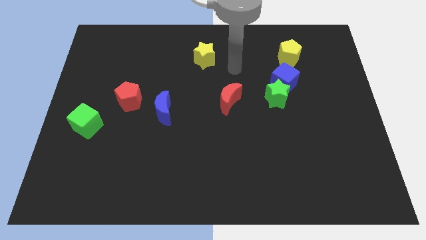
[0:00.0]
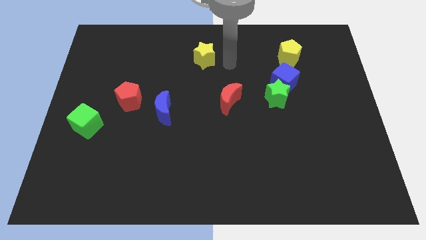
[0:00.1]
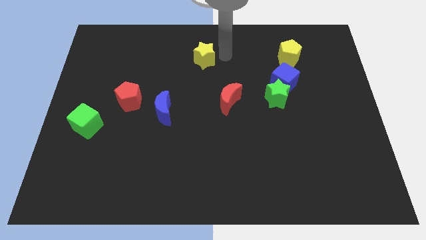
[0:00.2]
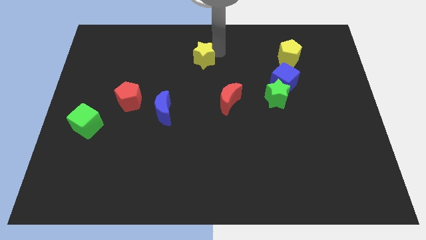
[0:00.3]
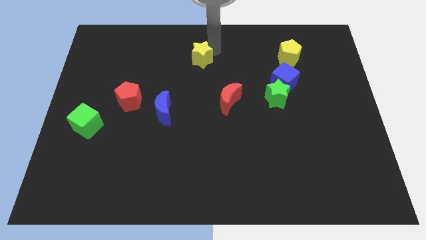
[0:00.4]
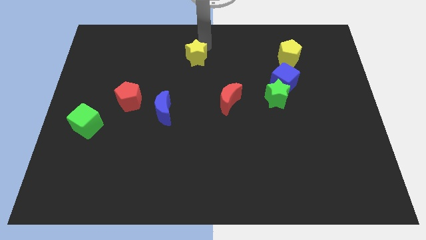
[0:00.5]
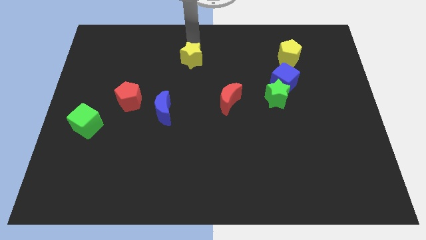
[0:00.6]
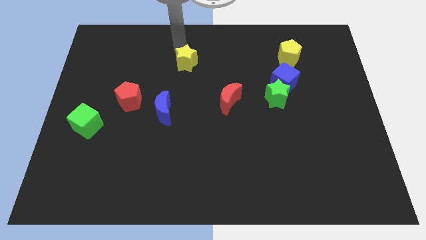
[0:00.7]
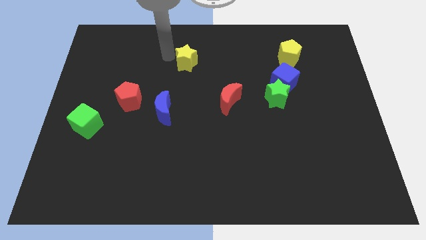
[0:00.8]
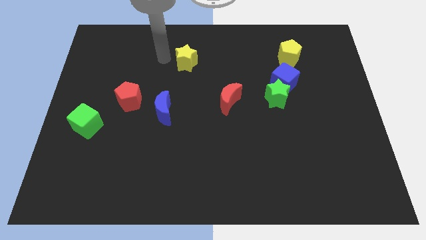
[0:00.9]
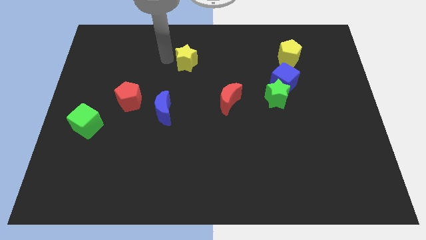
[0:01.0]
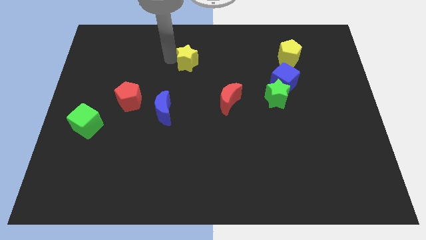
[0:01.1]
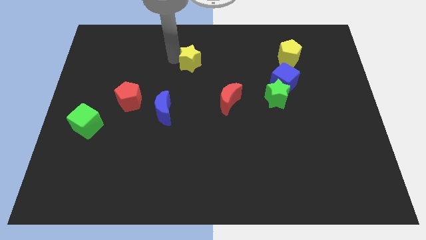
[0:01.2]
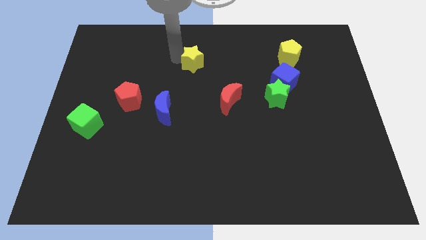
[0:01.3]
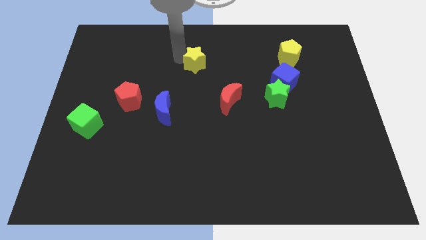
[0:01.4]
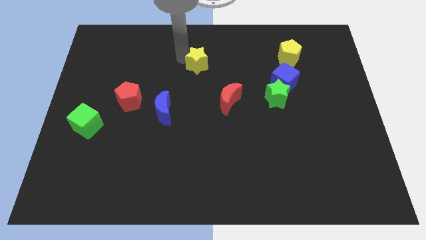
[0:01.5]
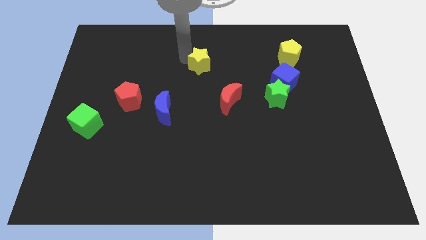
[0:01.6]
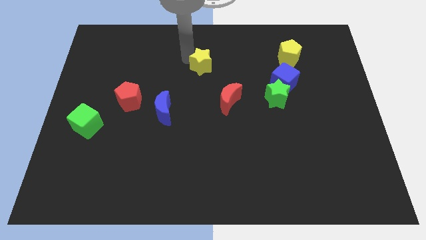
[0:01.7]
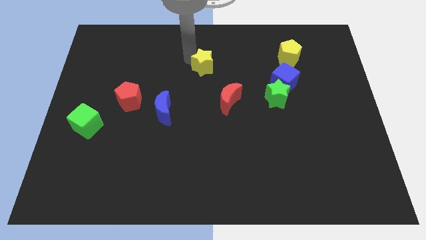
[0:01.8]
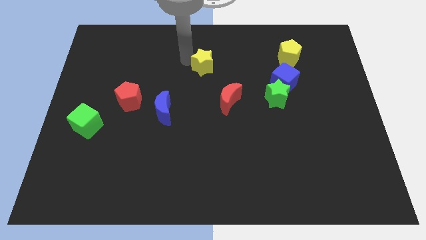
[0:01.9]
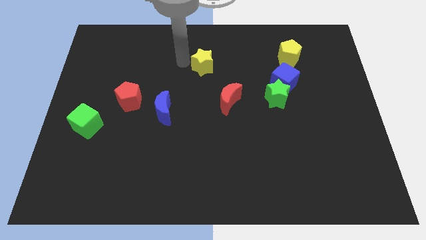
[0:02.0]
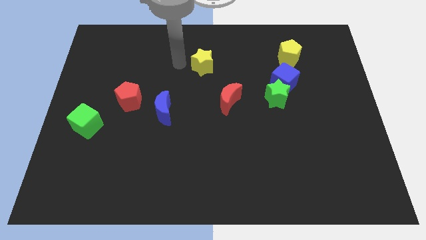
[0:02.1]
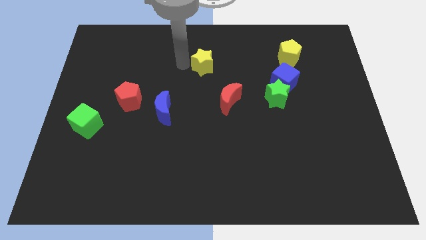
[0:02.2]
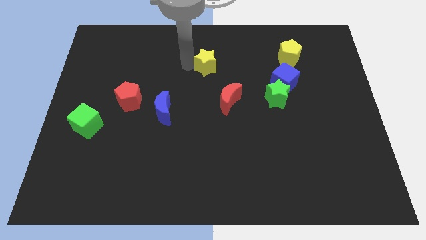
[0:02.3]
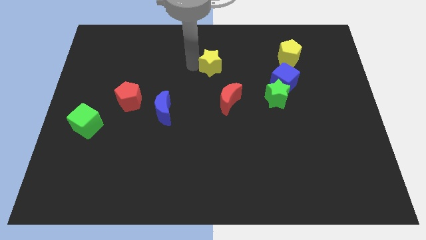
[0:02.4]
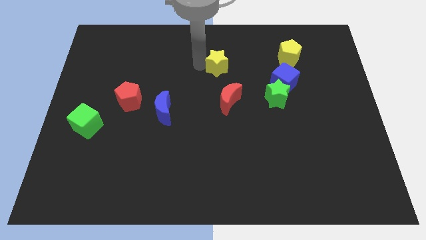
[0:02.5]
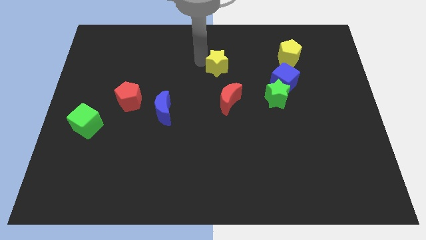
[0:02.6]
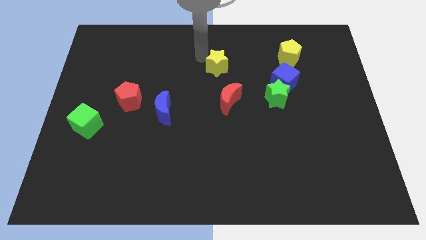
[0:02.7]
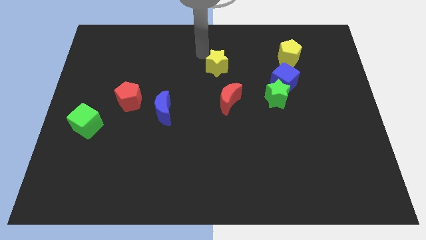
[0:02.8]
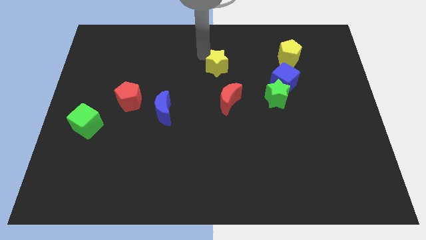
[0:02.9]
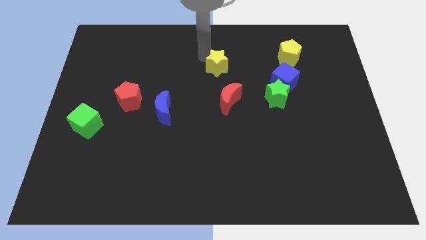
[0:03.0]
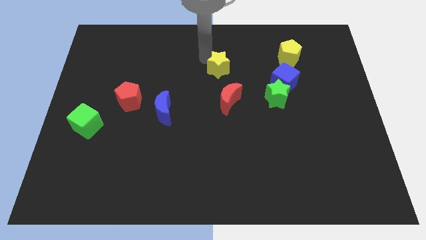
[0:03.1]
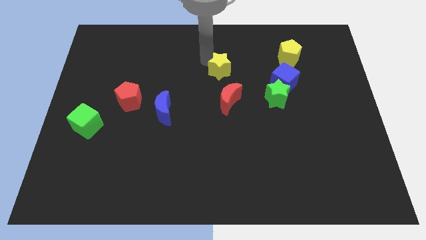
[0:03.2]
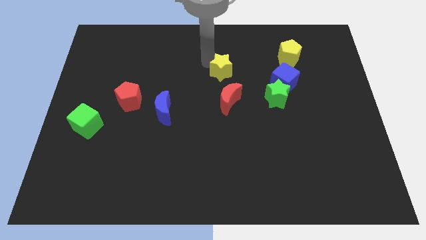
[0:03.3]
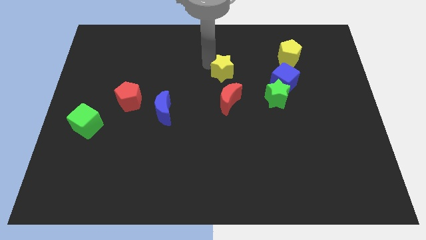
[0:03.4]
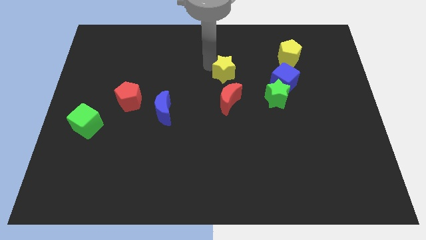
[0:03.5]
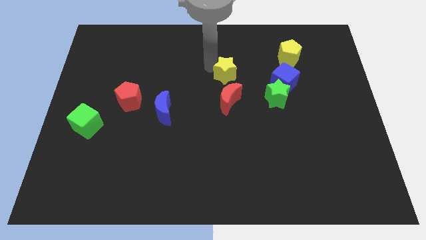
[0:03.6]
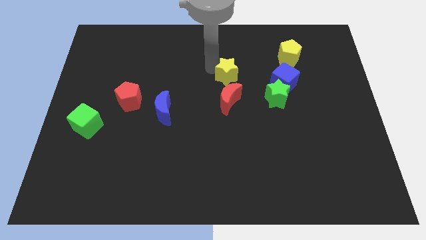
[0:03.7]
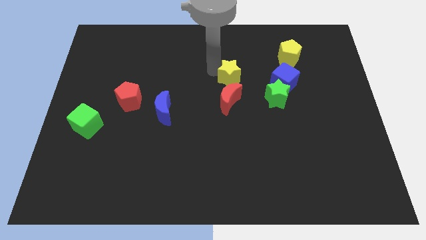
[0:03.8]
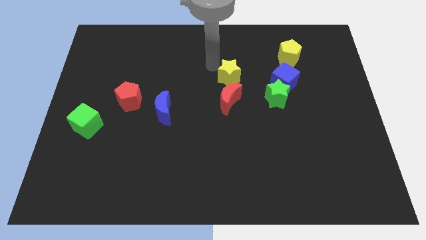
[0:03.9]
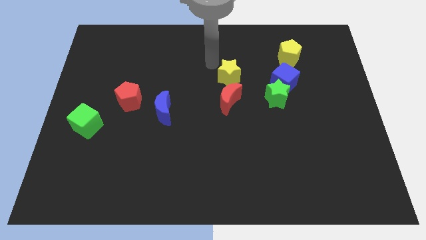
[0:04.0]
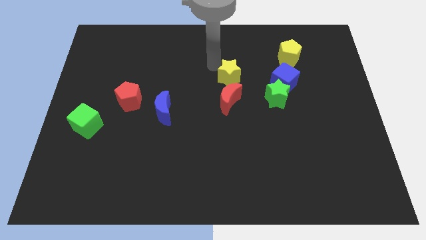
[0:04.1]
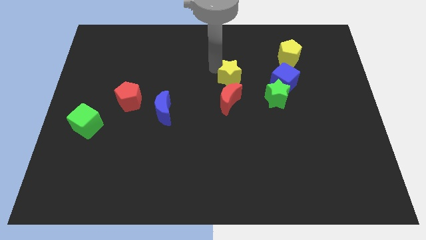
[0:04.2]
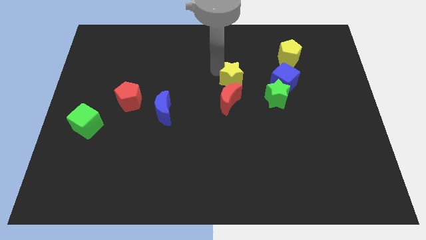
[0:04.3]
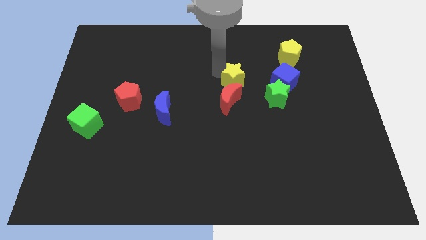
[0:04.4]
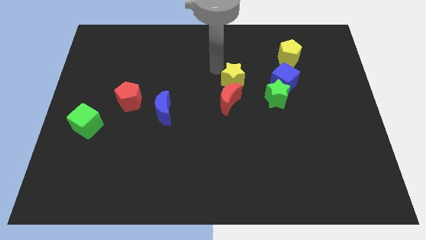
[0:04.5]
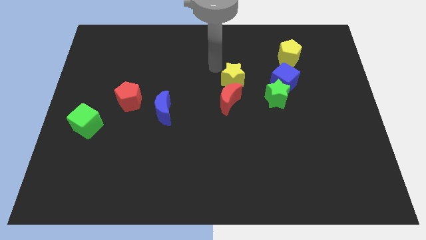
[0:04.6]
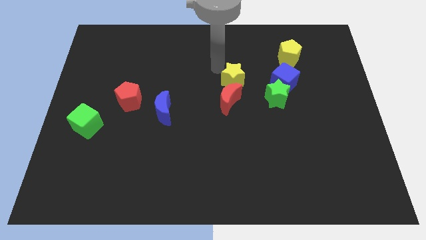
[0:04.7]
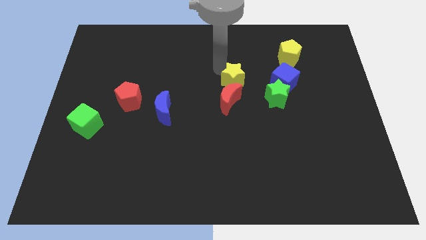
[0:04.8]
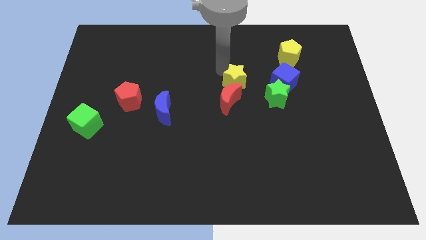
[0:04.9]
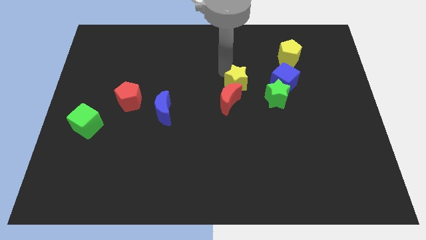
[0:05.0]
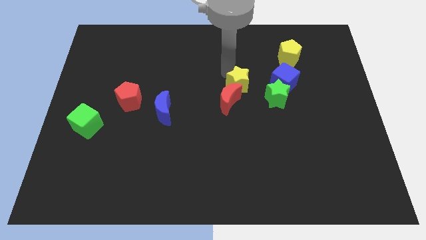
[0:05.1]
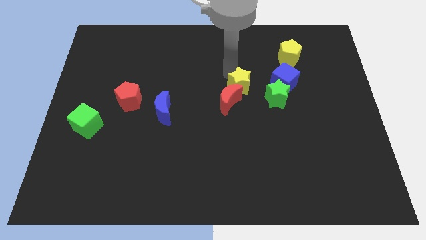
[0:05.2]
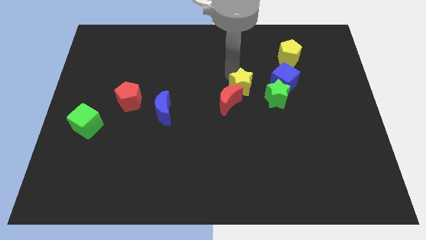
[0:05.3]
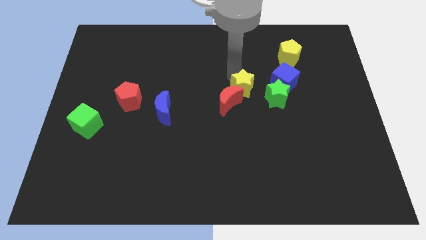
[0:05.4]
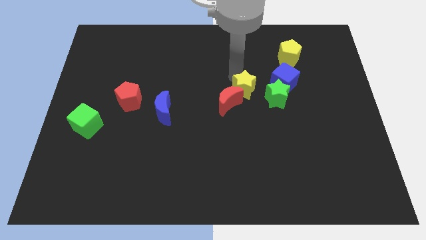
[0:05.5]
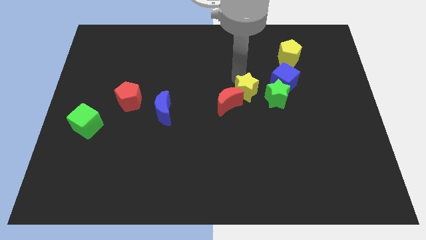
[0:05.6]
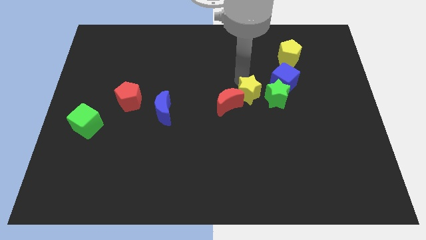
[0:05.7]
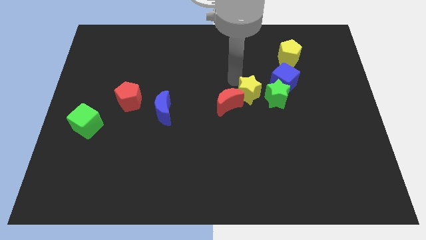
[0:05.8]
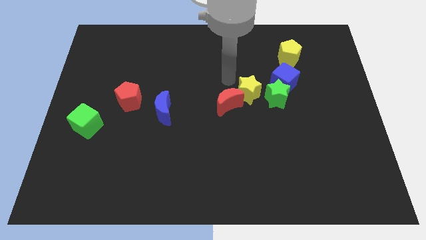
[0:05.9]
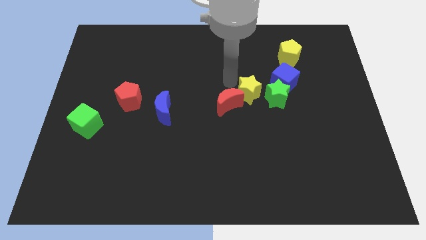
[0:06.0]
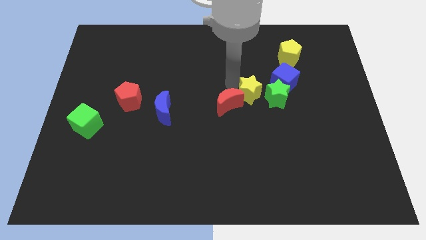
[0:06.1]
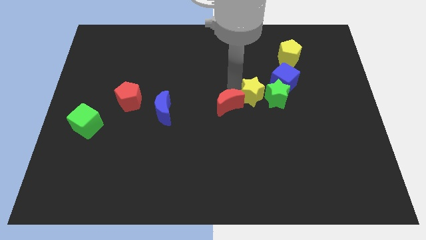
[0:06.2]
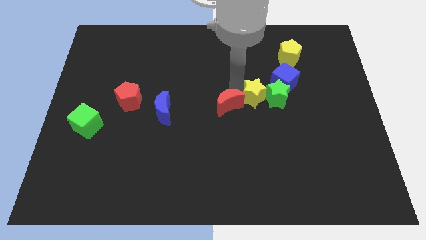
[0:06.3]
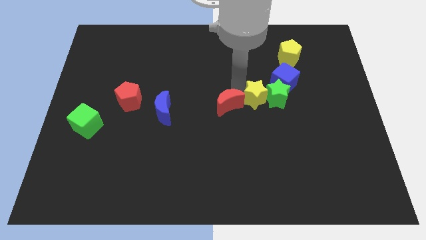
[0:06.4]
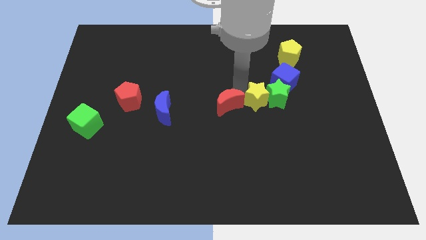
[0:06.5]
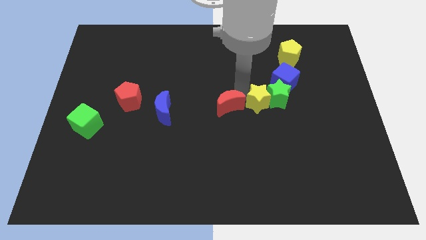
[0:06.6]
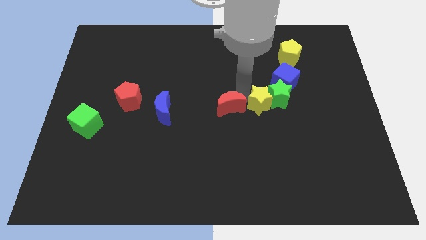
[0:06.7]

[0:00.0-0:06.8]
push the yellow star downwards and right

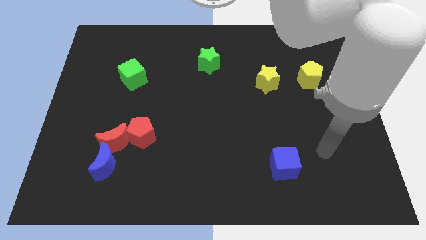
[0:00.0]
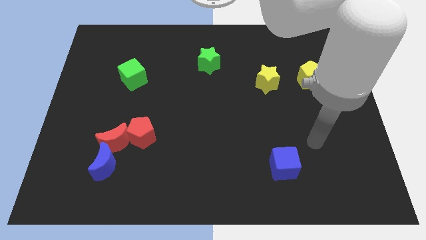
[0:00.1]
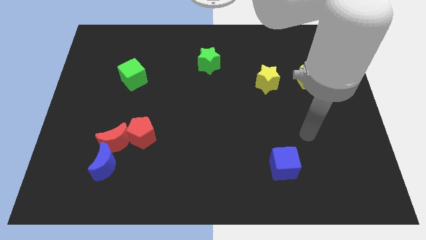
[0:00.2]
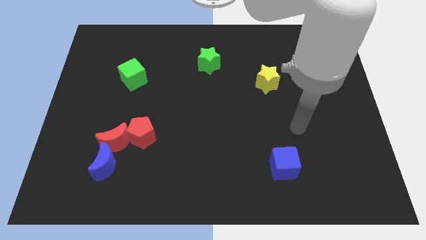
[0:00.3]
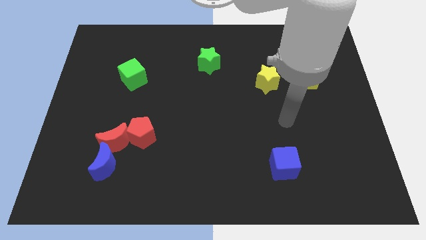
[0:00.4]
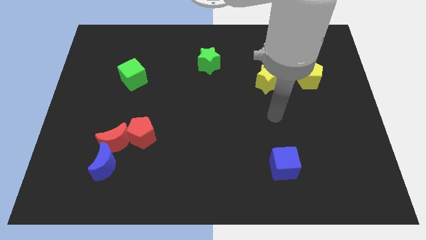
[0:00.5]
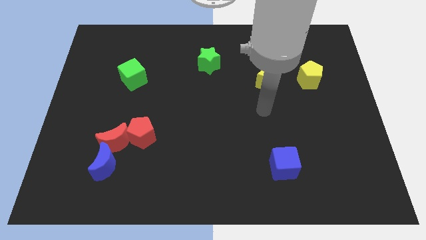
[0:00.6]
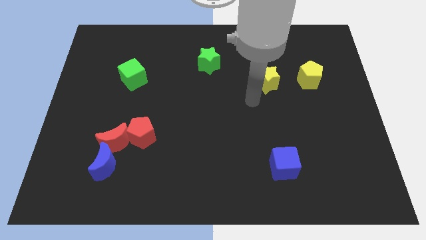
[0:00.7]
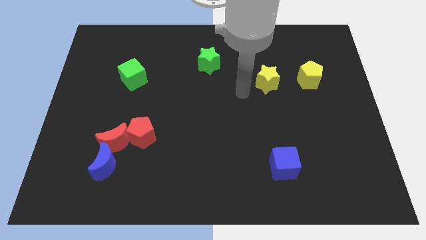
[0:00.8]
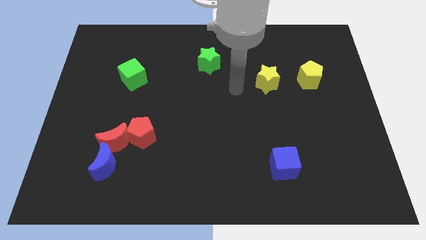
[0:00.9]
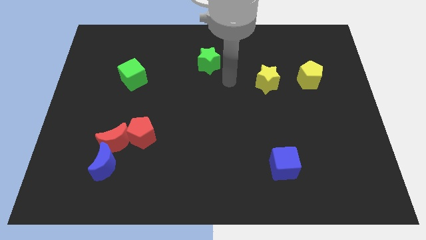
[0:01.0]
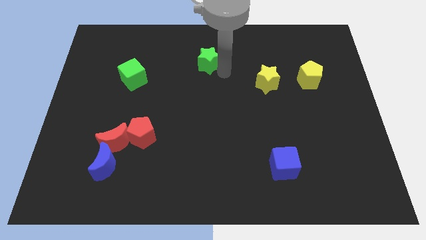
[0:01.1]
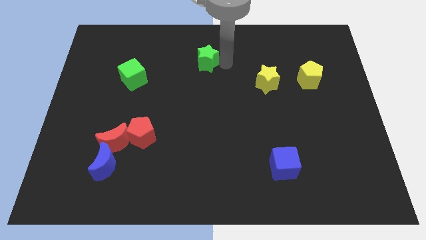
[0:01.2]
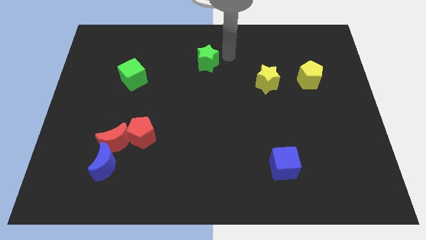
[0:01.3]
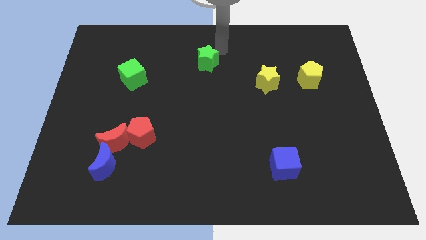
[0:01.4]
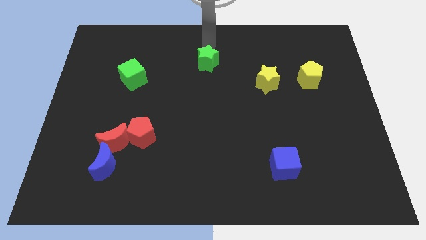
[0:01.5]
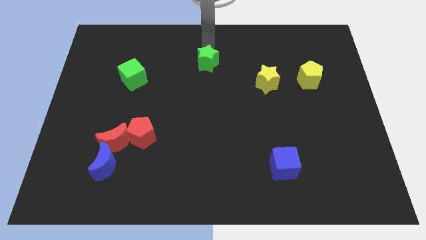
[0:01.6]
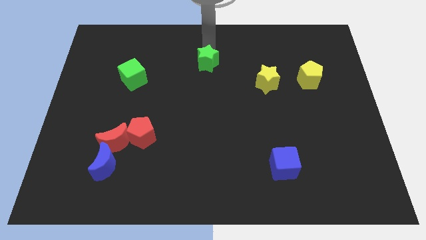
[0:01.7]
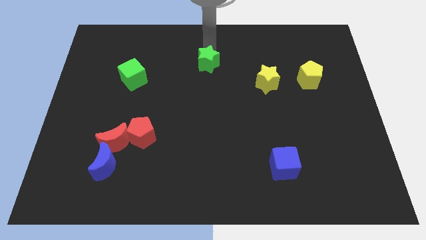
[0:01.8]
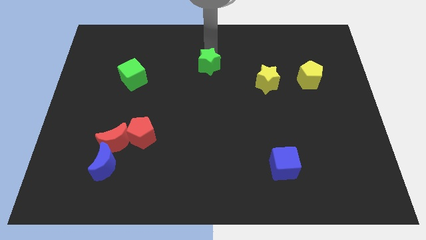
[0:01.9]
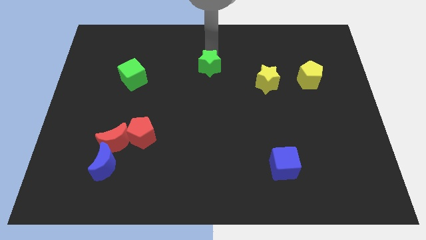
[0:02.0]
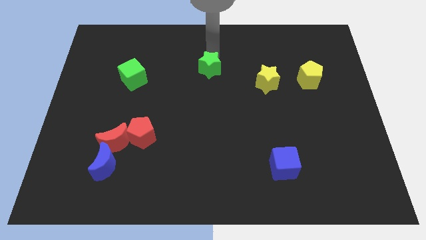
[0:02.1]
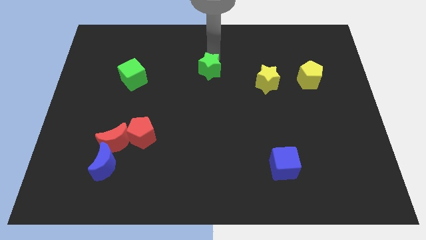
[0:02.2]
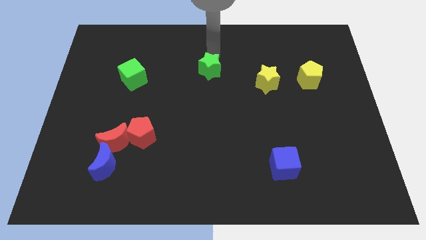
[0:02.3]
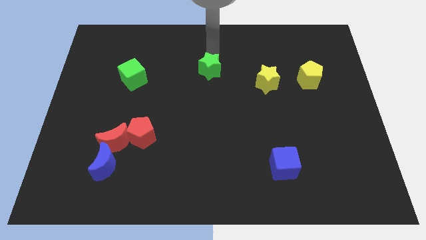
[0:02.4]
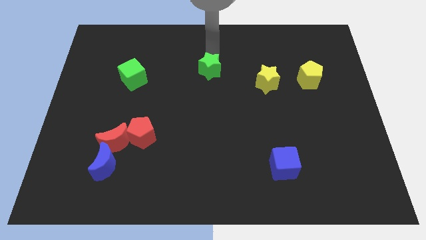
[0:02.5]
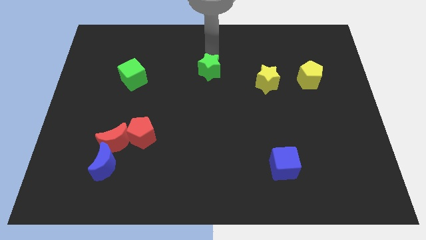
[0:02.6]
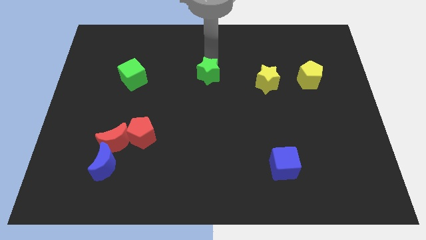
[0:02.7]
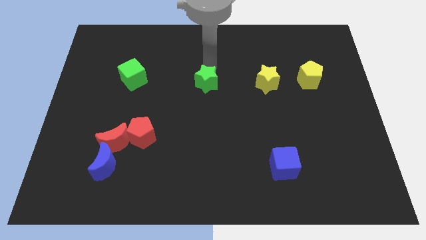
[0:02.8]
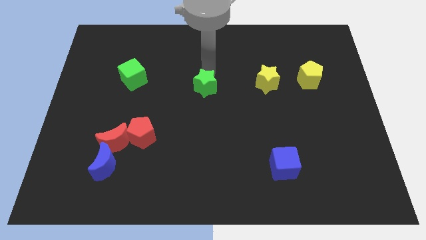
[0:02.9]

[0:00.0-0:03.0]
slightly slide the green star downwards
